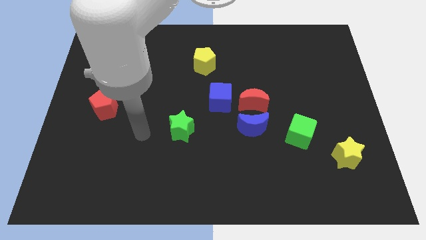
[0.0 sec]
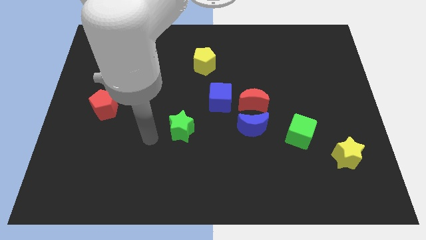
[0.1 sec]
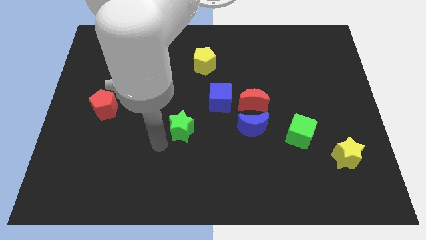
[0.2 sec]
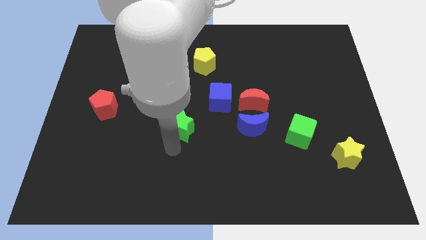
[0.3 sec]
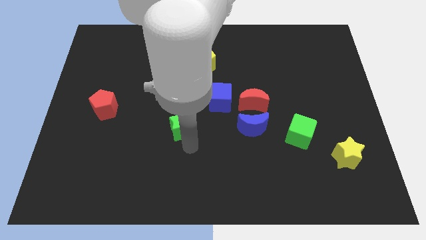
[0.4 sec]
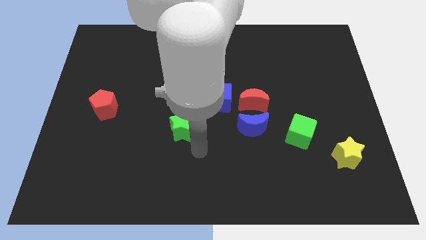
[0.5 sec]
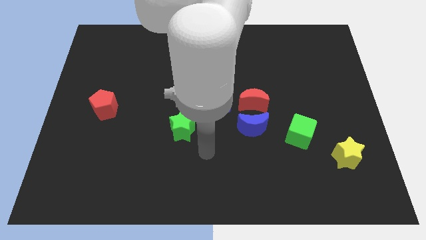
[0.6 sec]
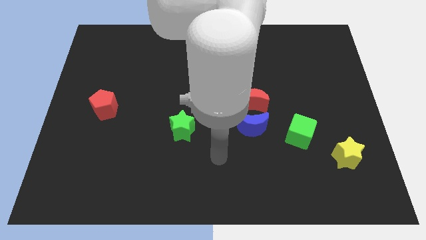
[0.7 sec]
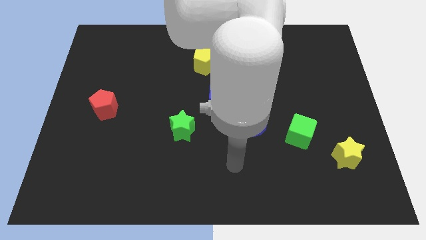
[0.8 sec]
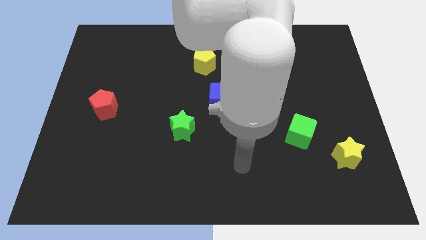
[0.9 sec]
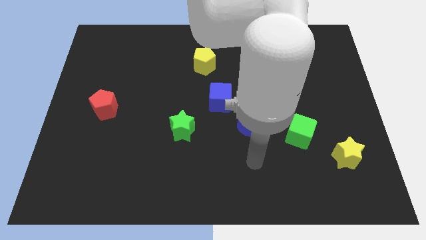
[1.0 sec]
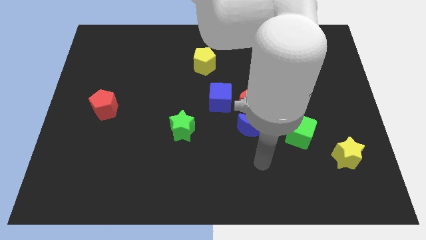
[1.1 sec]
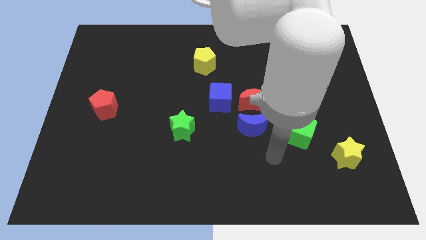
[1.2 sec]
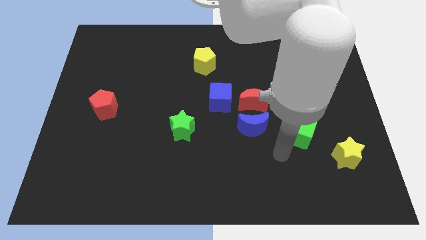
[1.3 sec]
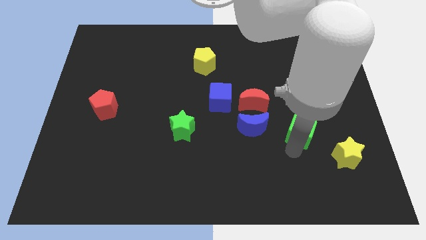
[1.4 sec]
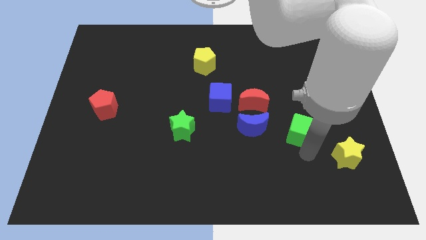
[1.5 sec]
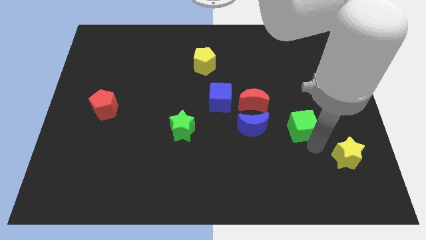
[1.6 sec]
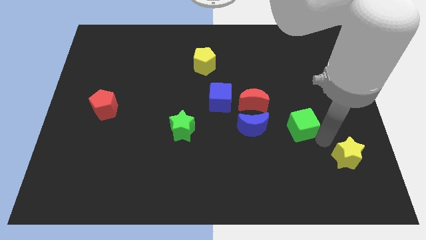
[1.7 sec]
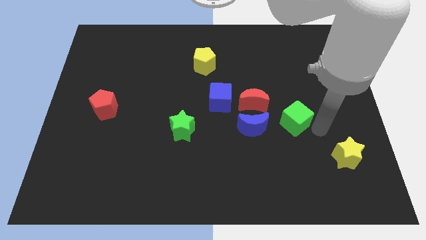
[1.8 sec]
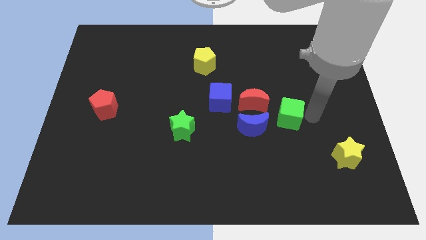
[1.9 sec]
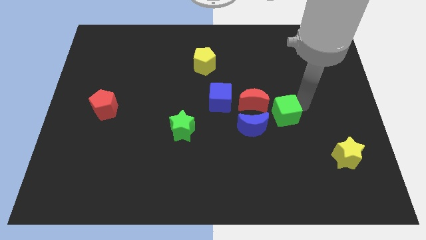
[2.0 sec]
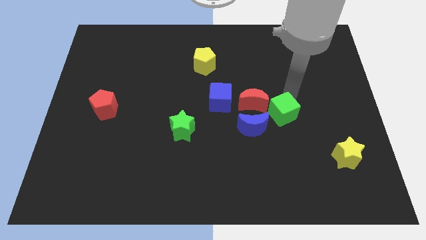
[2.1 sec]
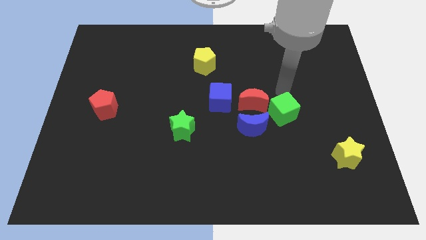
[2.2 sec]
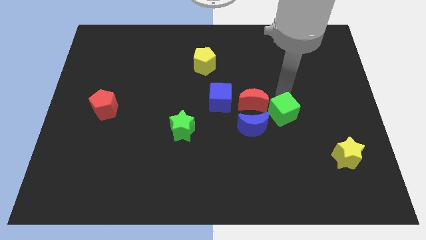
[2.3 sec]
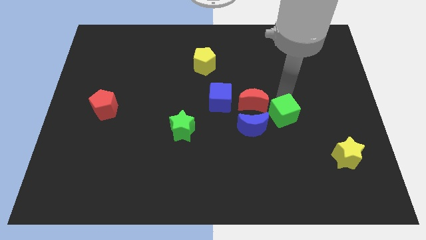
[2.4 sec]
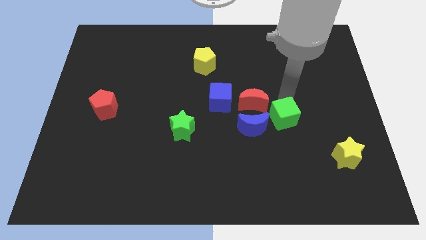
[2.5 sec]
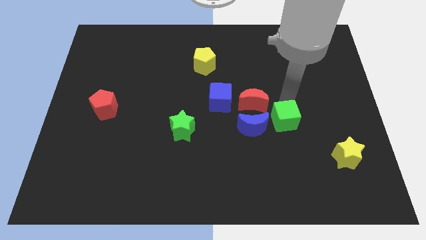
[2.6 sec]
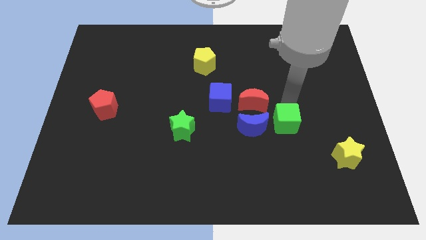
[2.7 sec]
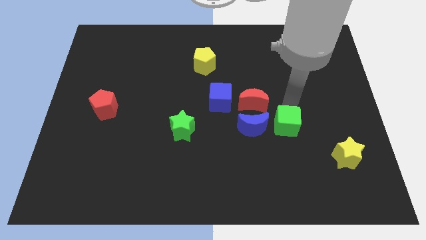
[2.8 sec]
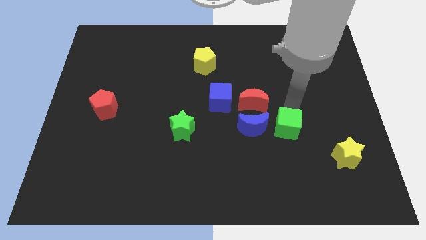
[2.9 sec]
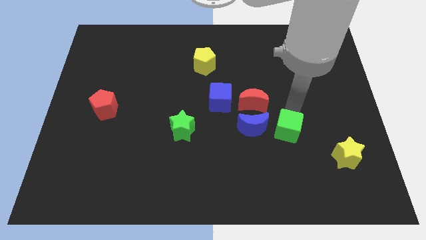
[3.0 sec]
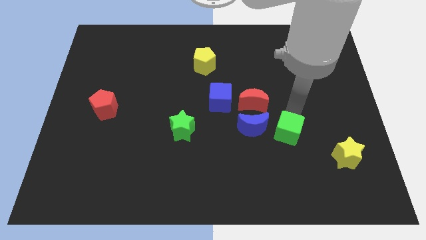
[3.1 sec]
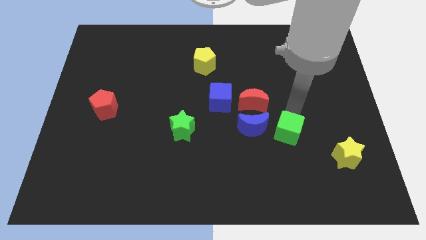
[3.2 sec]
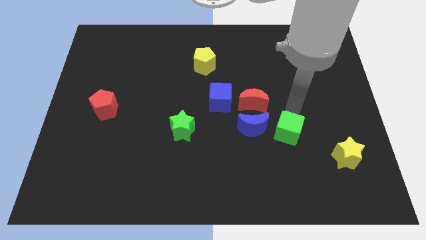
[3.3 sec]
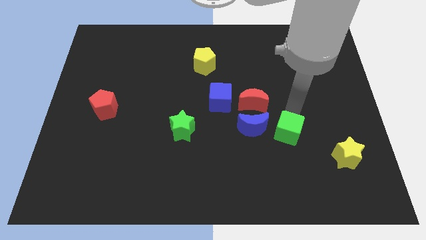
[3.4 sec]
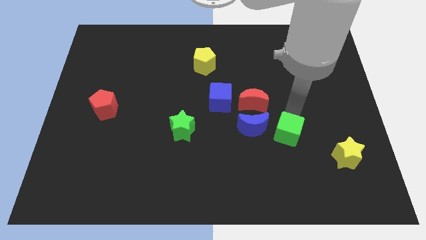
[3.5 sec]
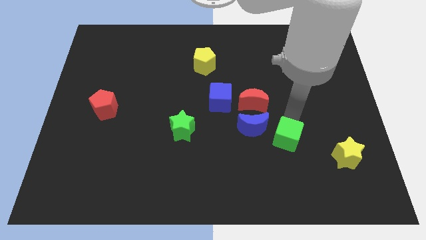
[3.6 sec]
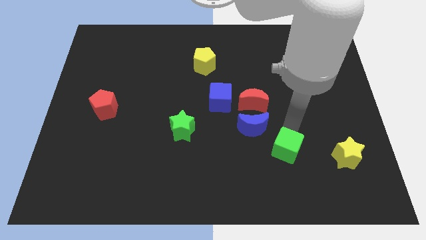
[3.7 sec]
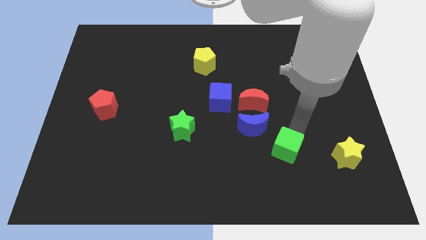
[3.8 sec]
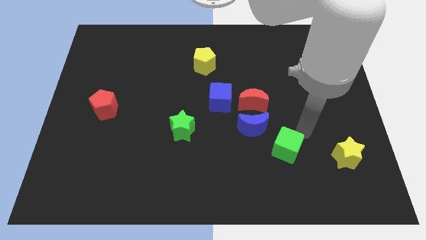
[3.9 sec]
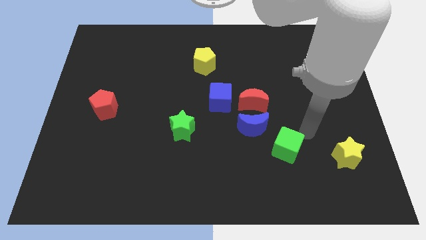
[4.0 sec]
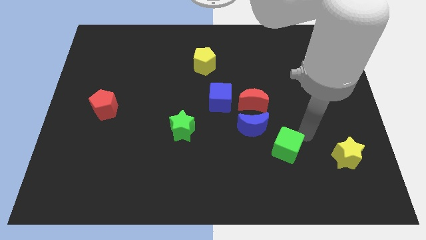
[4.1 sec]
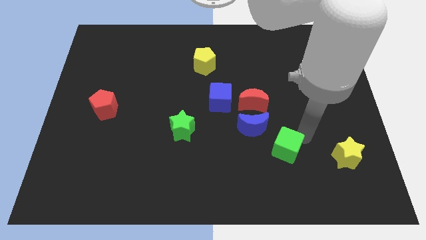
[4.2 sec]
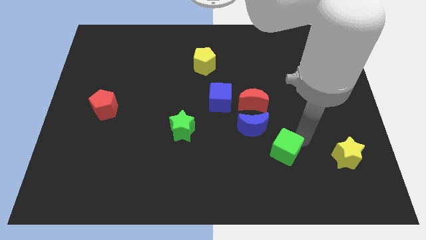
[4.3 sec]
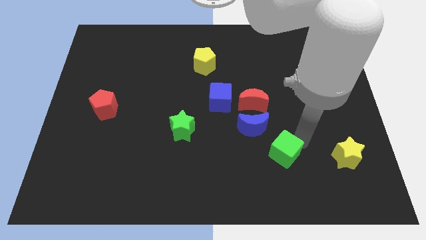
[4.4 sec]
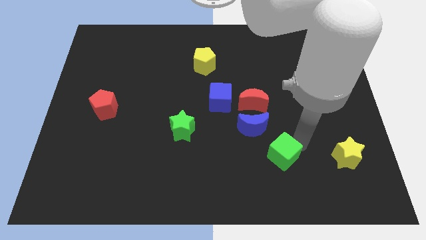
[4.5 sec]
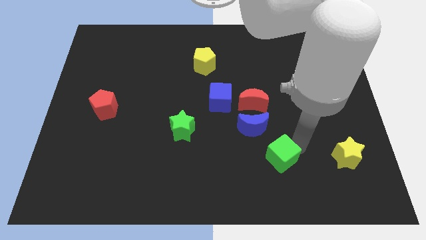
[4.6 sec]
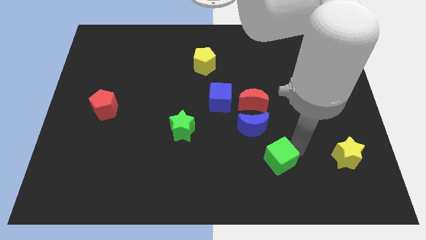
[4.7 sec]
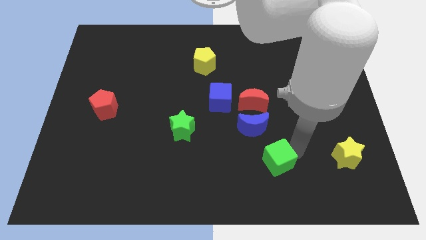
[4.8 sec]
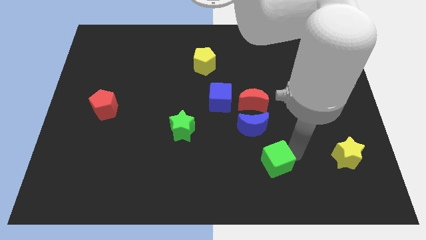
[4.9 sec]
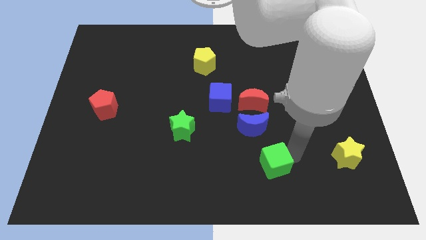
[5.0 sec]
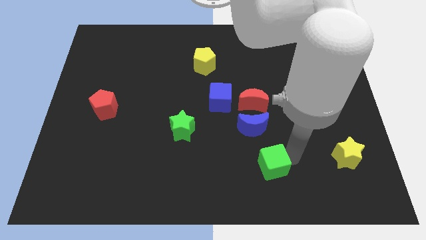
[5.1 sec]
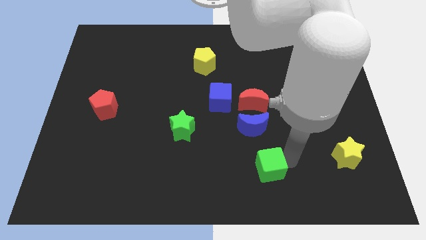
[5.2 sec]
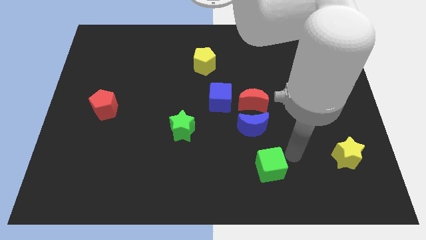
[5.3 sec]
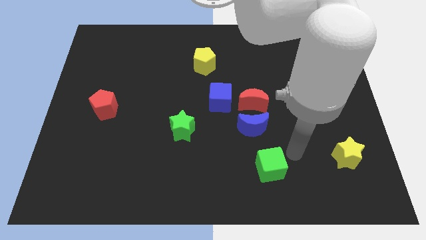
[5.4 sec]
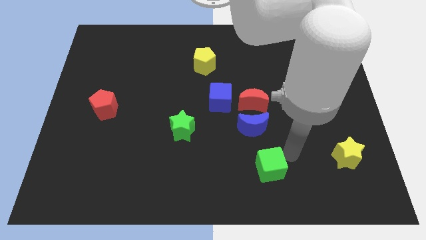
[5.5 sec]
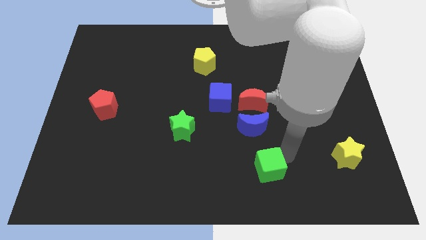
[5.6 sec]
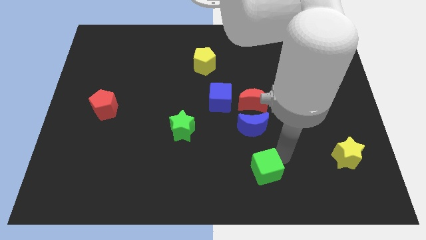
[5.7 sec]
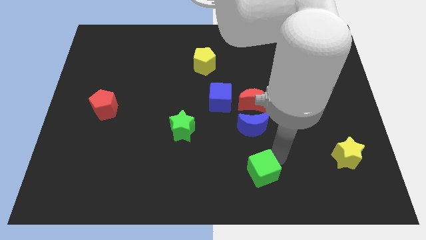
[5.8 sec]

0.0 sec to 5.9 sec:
put the green cube to the bottom
